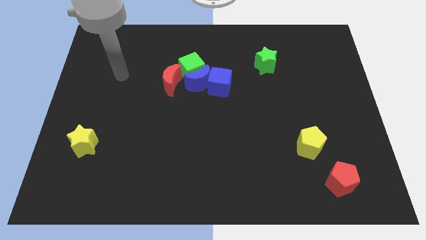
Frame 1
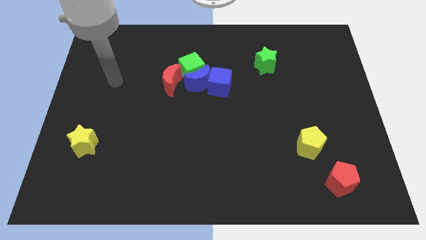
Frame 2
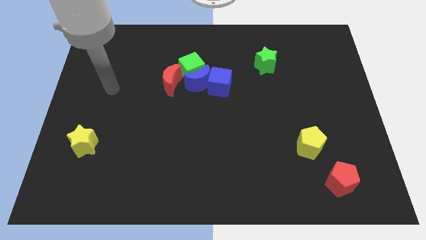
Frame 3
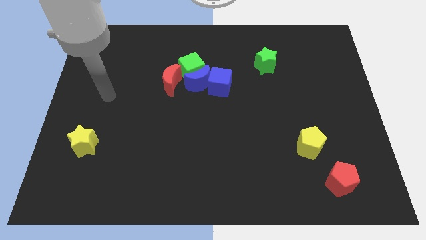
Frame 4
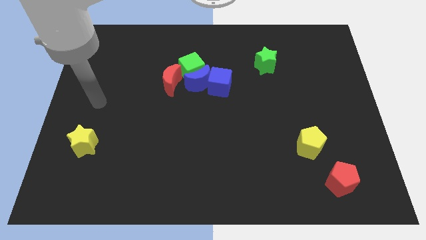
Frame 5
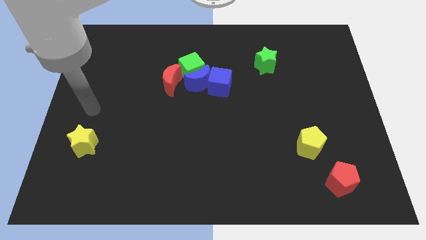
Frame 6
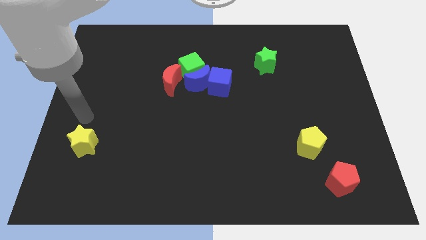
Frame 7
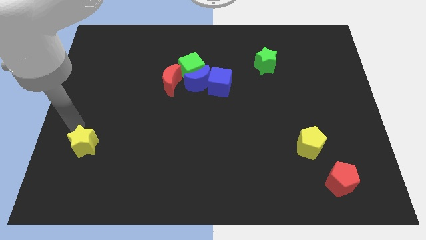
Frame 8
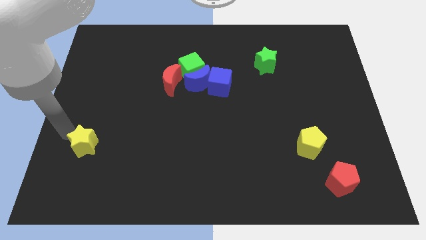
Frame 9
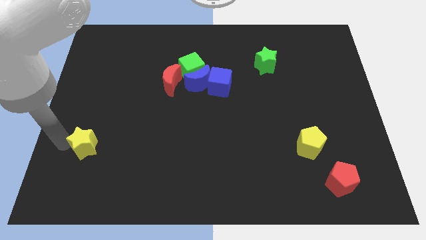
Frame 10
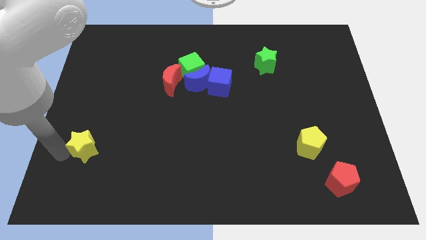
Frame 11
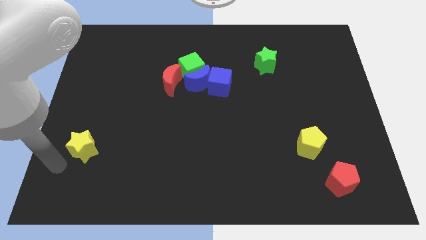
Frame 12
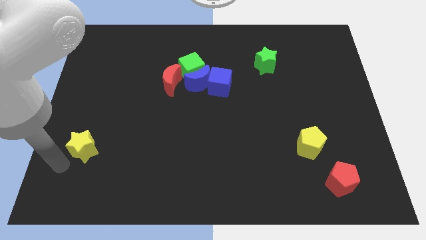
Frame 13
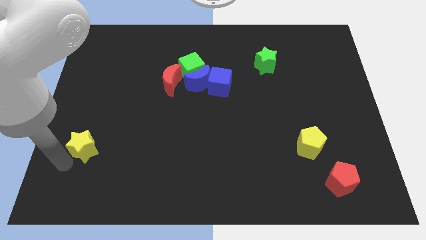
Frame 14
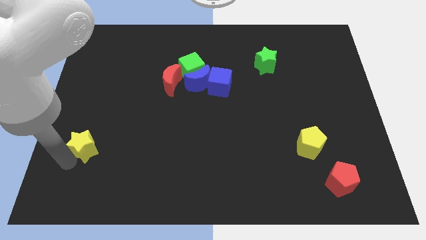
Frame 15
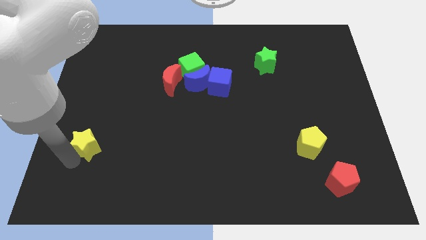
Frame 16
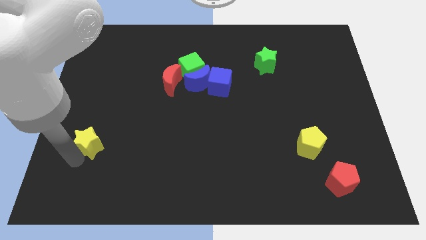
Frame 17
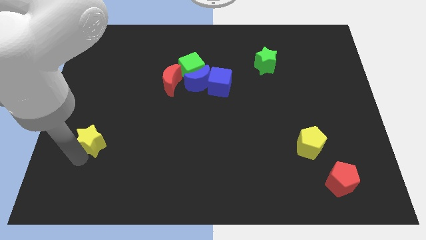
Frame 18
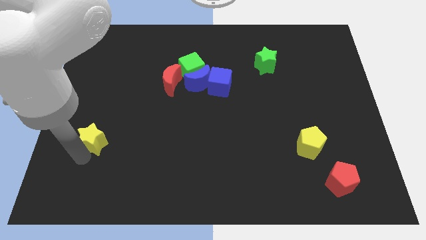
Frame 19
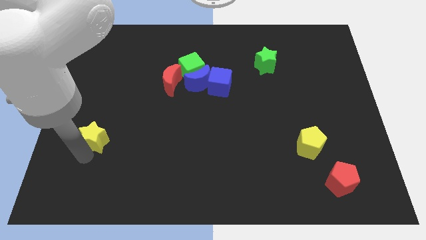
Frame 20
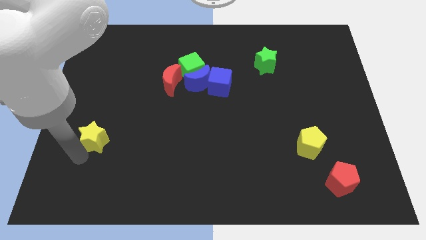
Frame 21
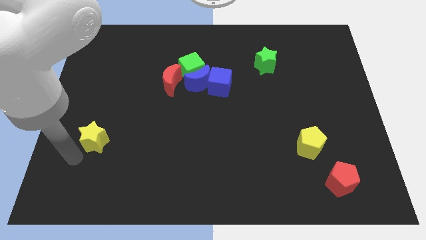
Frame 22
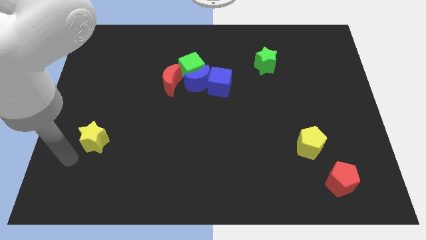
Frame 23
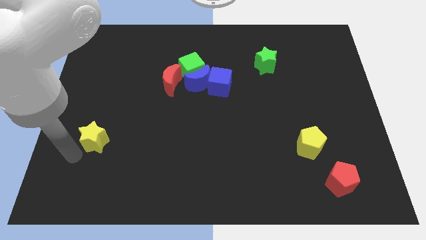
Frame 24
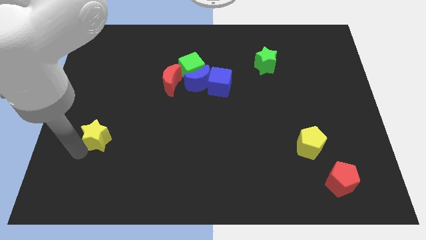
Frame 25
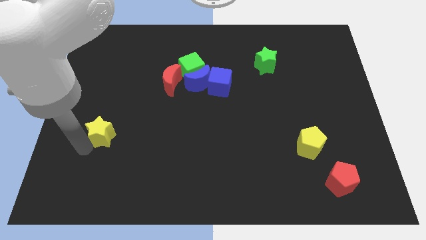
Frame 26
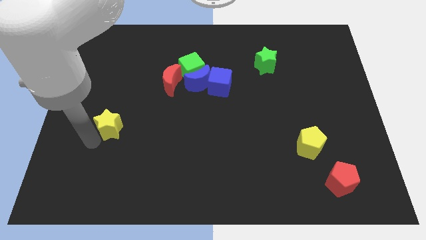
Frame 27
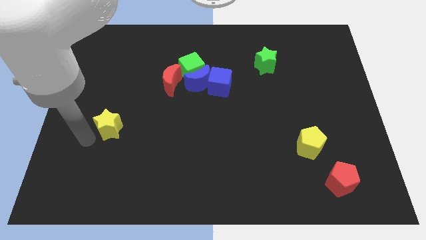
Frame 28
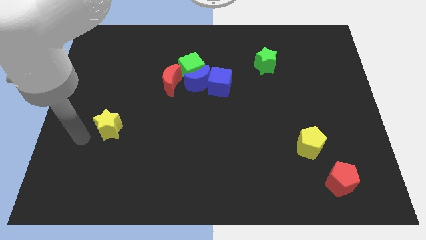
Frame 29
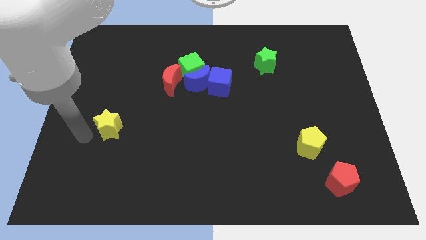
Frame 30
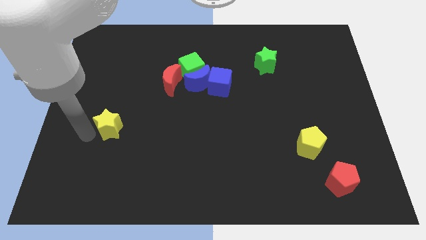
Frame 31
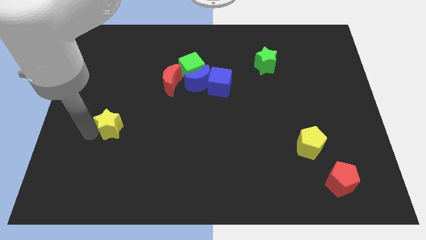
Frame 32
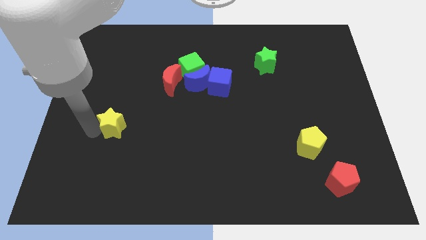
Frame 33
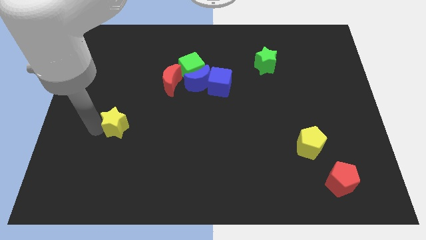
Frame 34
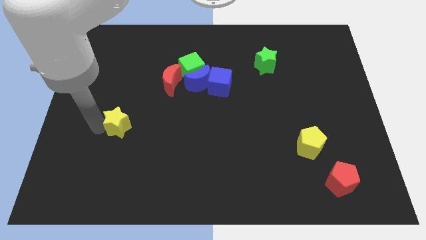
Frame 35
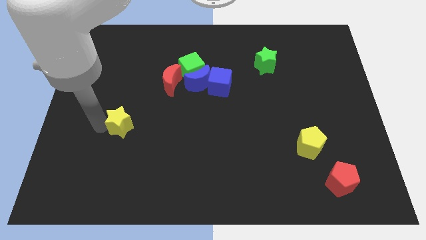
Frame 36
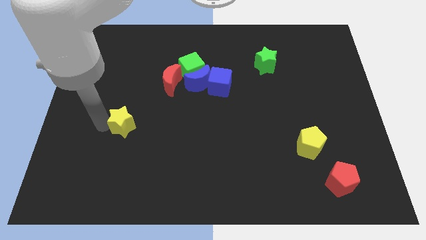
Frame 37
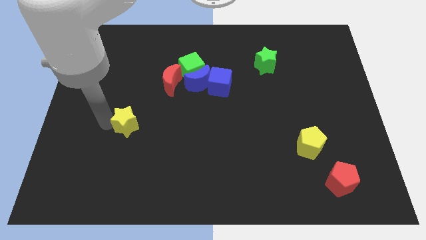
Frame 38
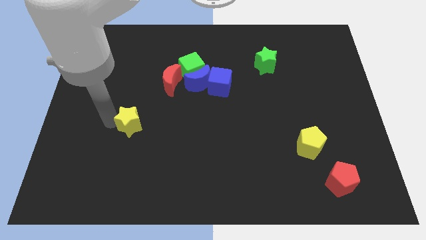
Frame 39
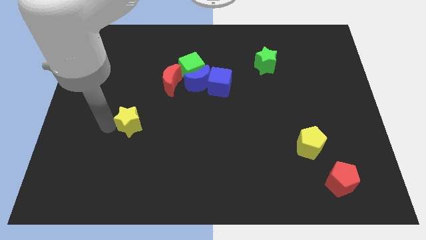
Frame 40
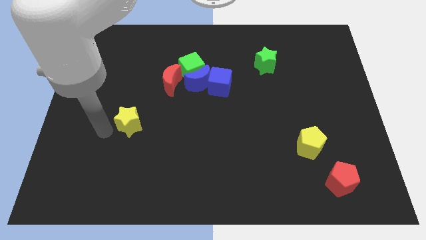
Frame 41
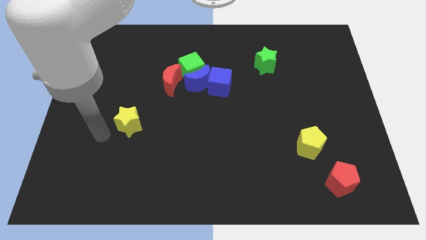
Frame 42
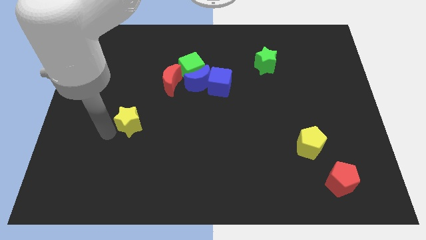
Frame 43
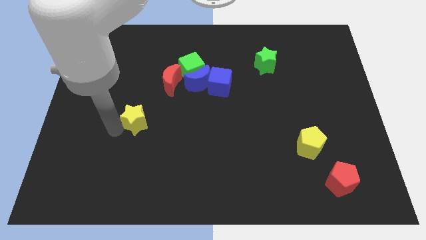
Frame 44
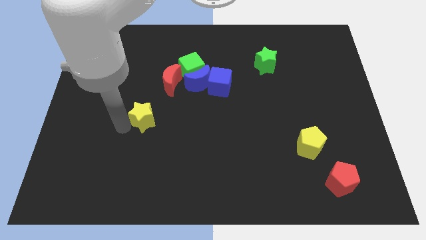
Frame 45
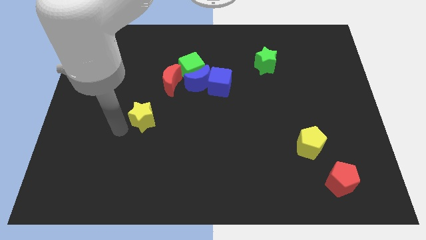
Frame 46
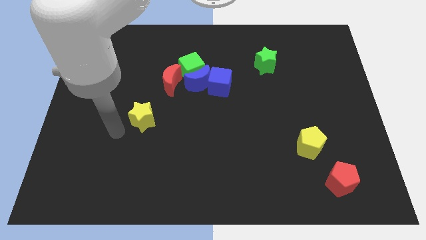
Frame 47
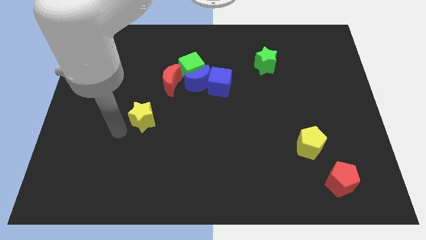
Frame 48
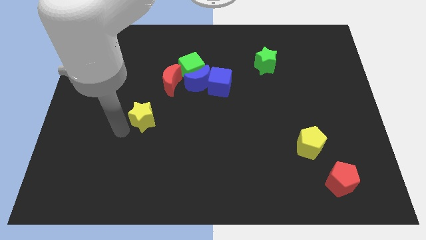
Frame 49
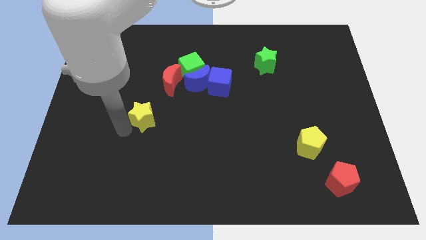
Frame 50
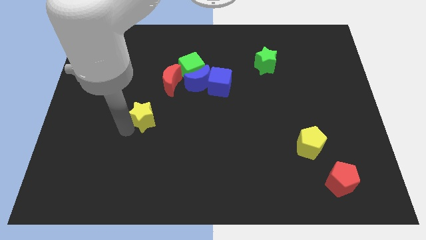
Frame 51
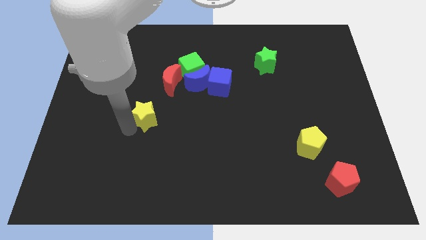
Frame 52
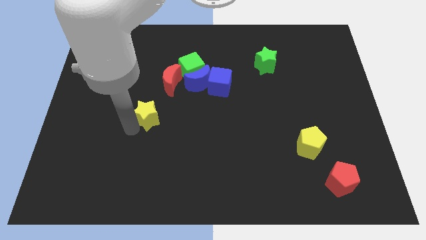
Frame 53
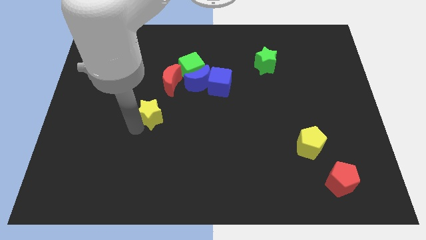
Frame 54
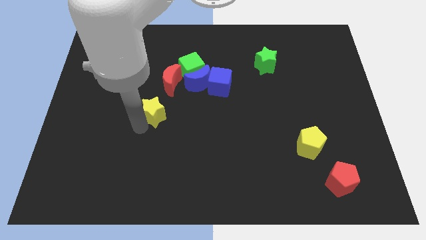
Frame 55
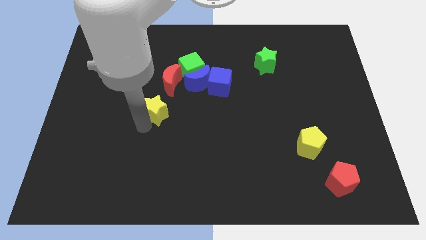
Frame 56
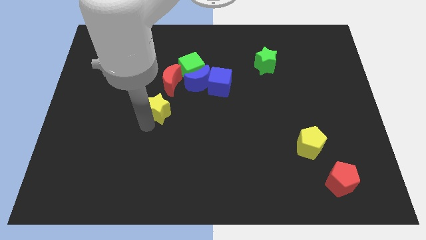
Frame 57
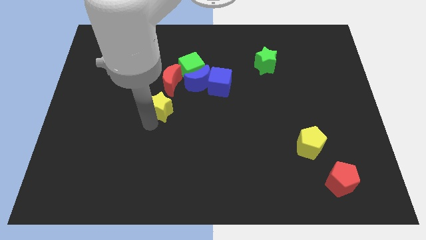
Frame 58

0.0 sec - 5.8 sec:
put the yellow star to the bottom left side of the blue moon

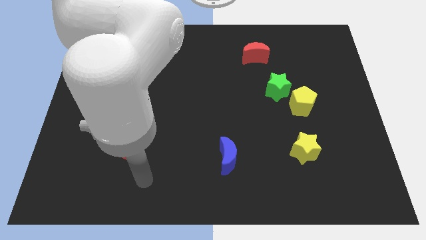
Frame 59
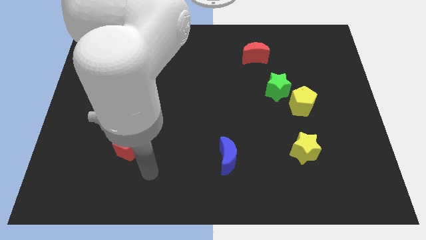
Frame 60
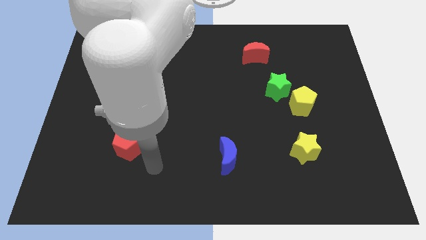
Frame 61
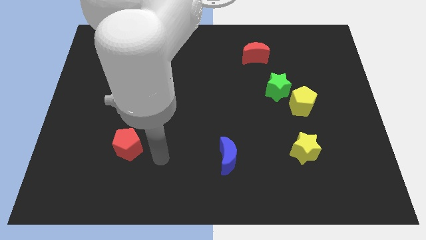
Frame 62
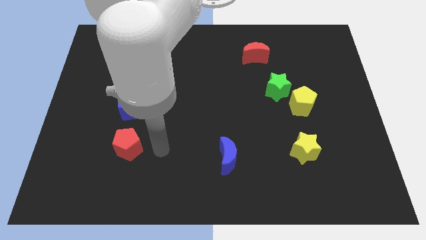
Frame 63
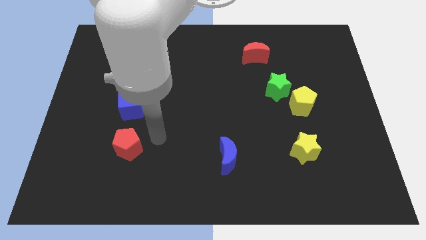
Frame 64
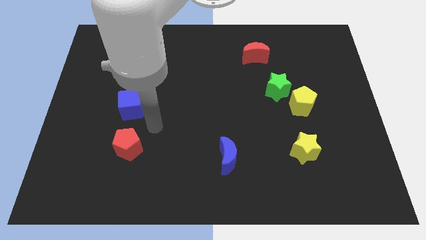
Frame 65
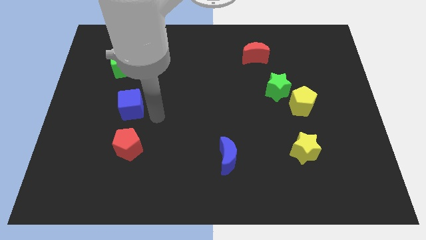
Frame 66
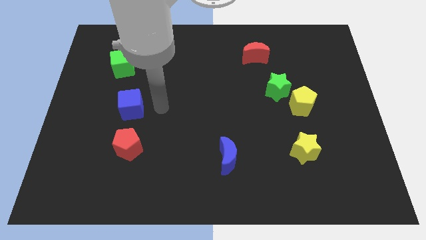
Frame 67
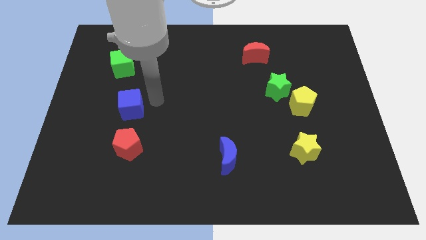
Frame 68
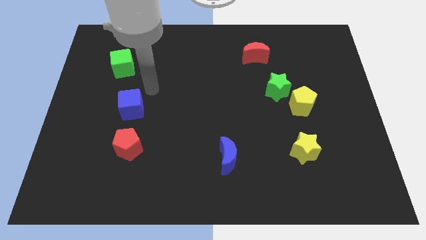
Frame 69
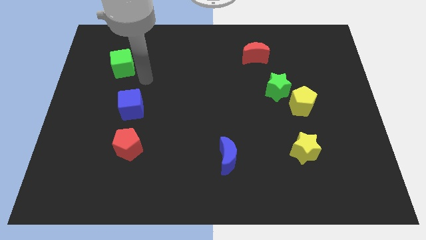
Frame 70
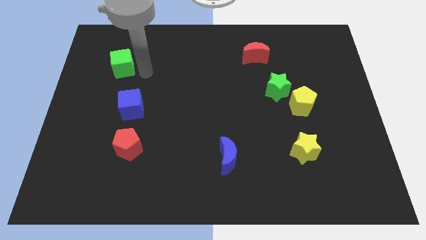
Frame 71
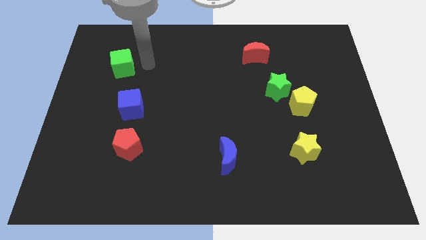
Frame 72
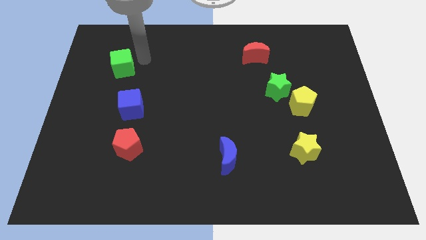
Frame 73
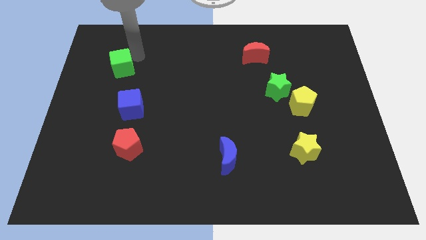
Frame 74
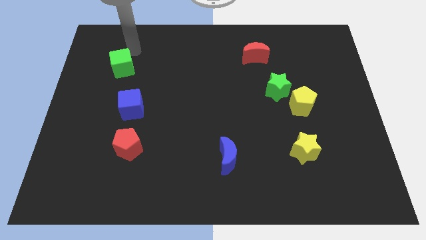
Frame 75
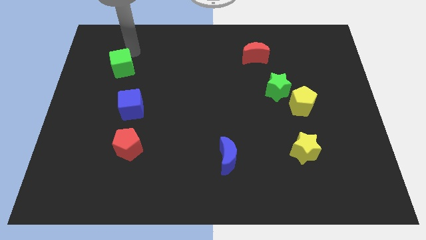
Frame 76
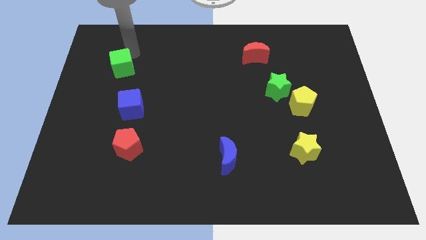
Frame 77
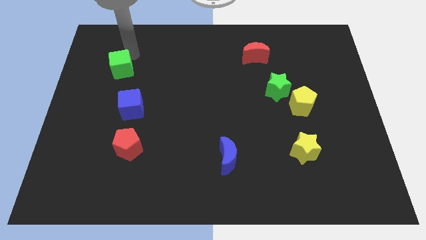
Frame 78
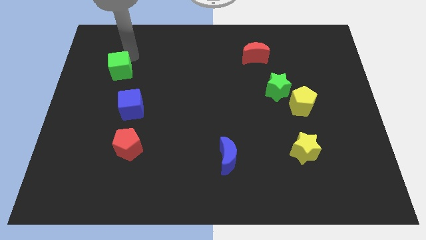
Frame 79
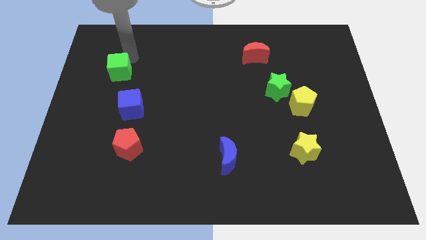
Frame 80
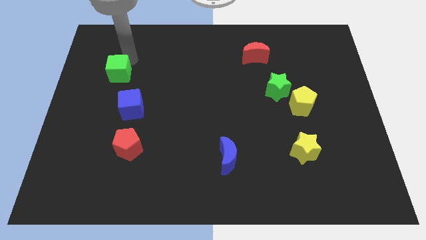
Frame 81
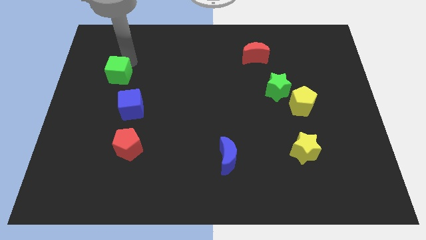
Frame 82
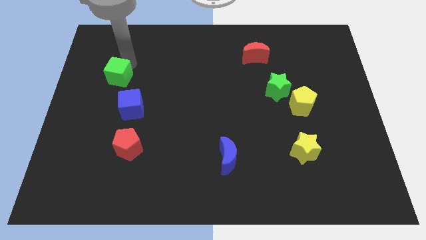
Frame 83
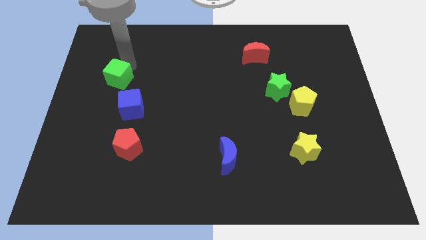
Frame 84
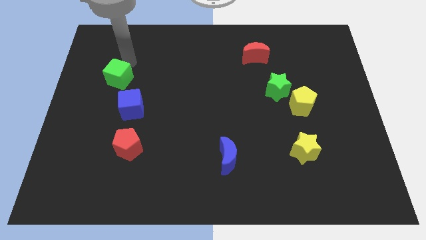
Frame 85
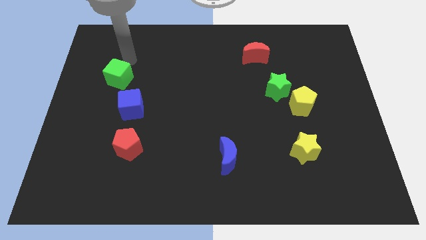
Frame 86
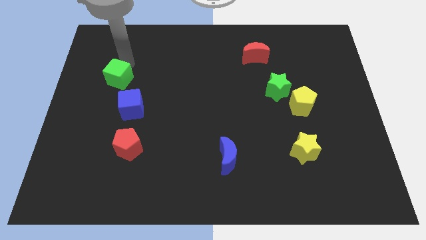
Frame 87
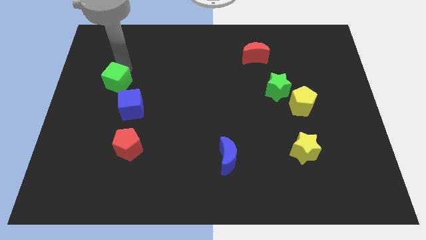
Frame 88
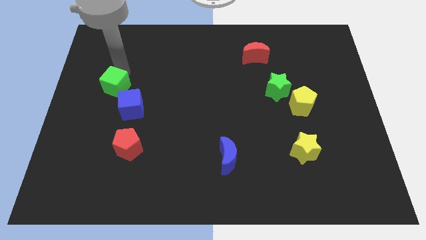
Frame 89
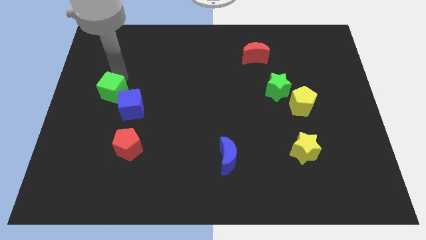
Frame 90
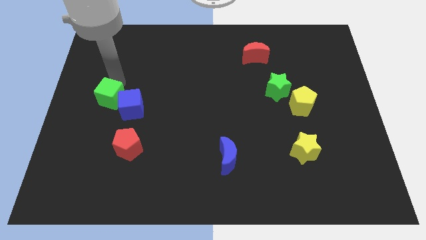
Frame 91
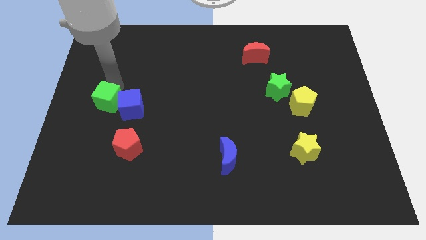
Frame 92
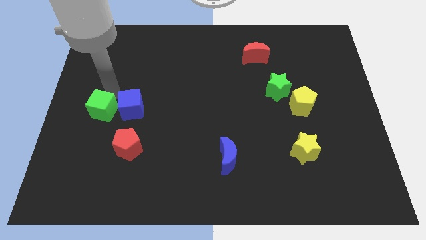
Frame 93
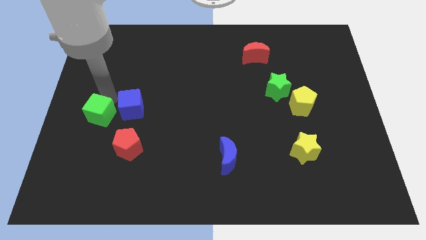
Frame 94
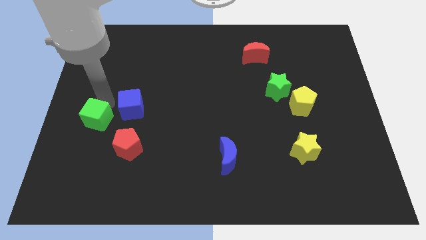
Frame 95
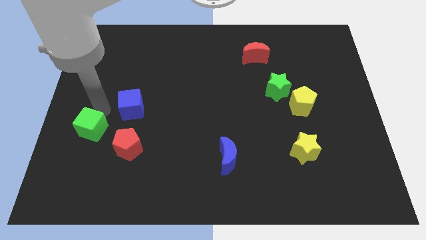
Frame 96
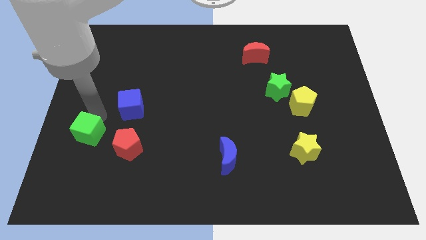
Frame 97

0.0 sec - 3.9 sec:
move the green cube to the left of the red pentagon
